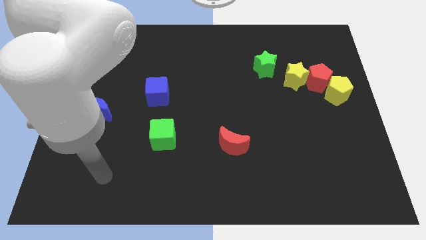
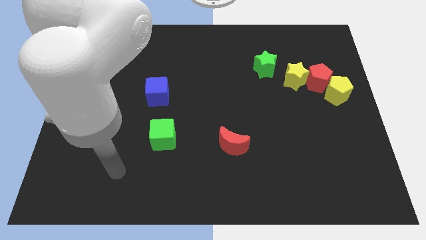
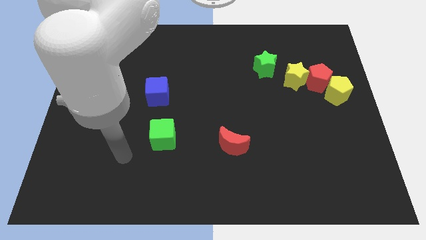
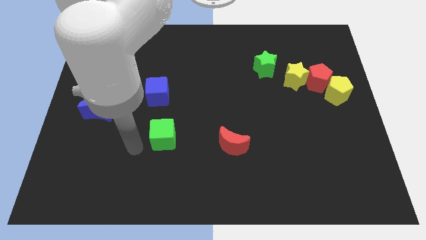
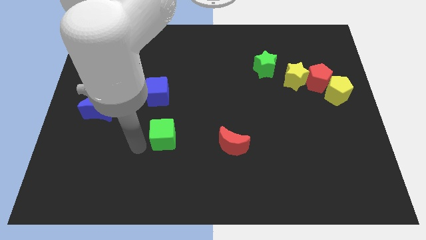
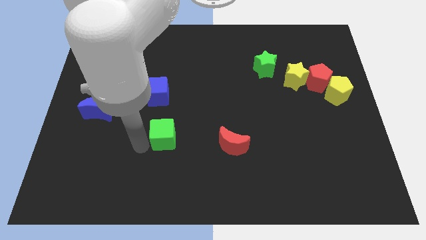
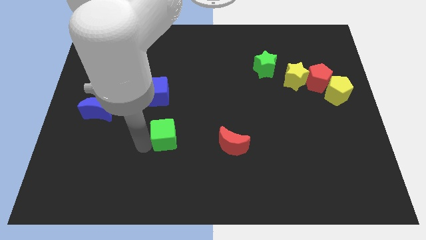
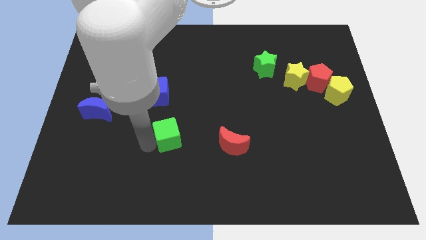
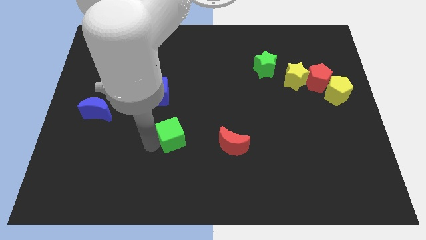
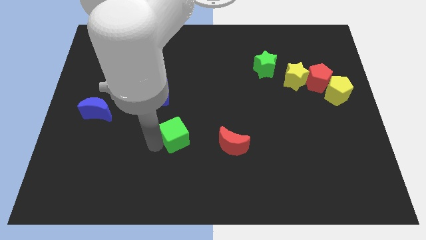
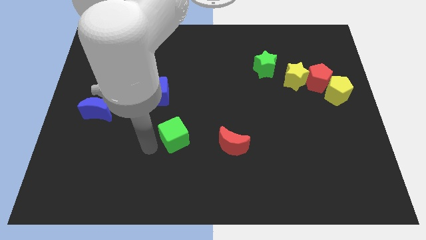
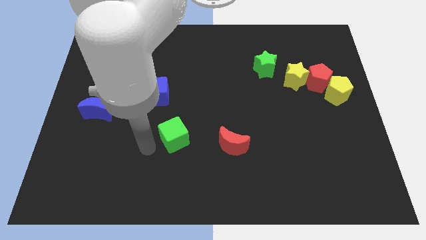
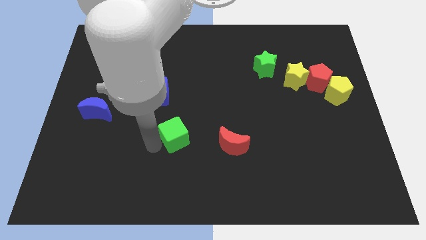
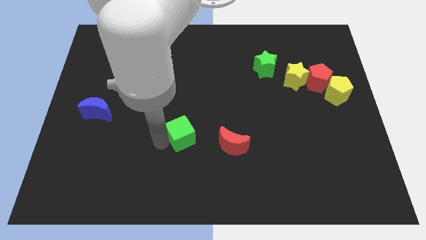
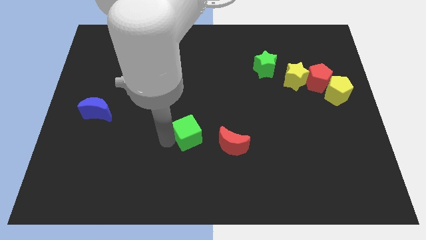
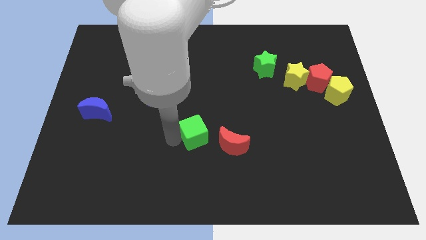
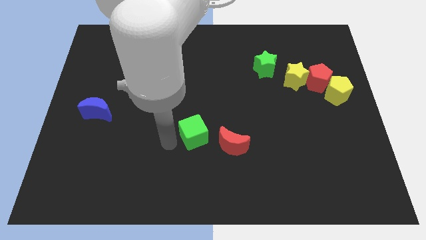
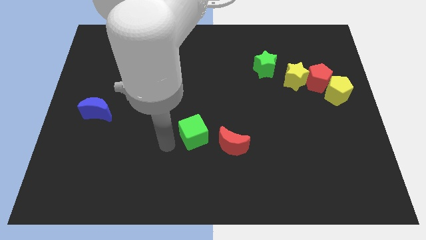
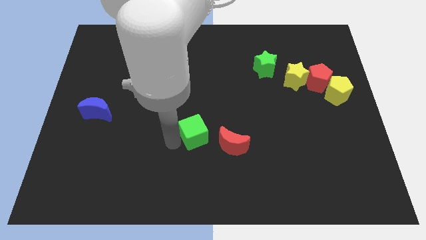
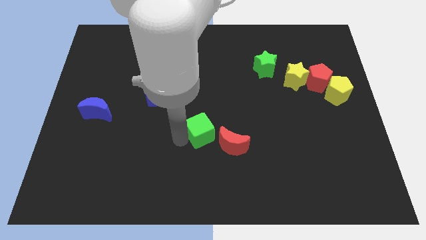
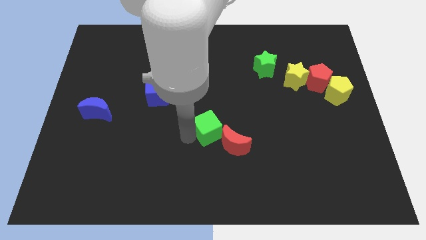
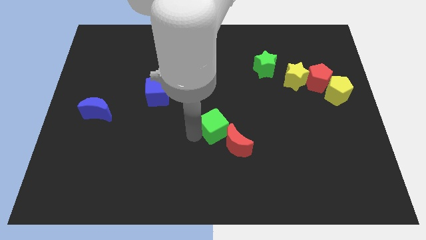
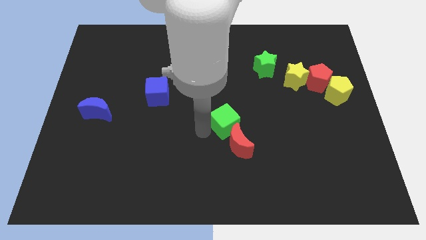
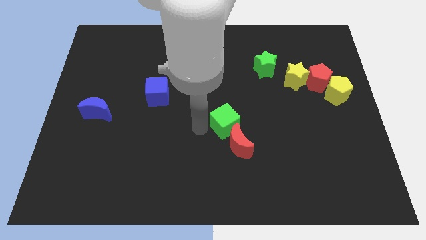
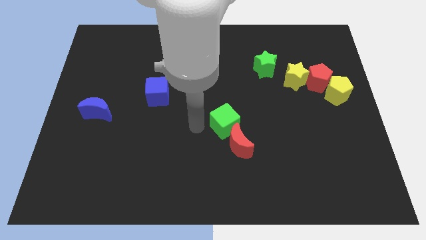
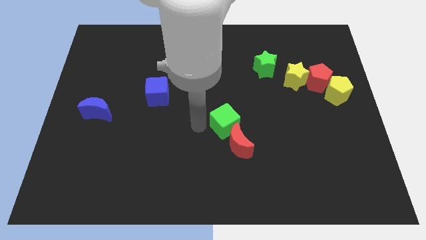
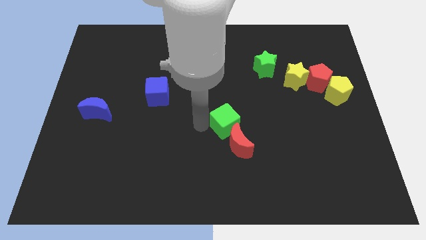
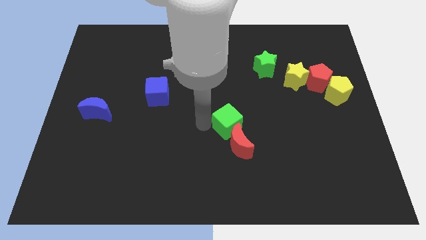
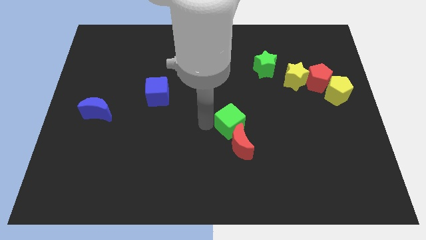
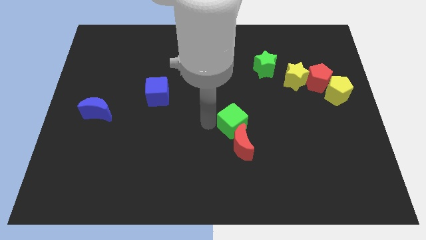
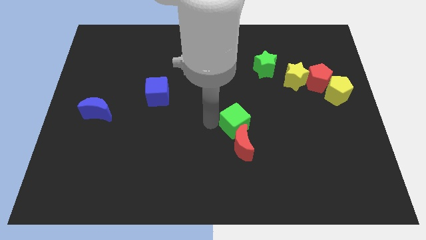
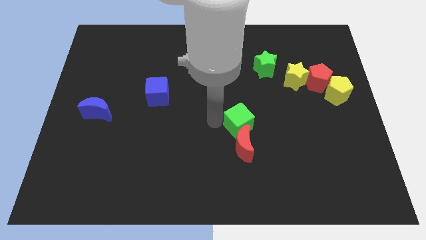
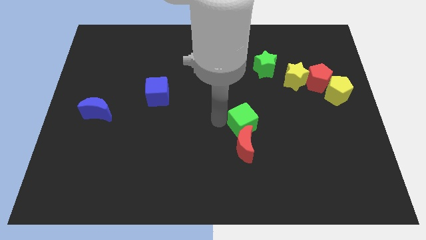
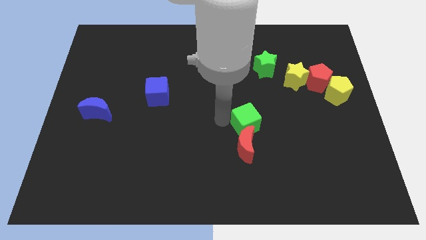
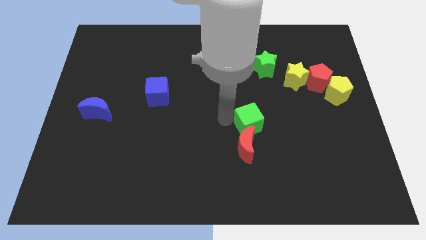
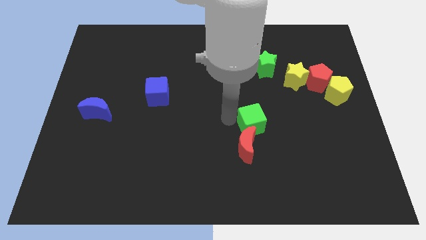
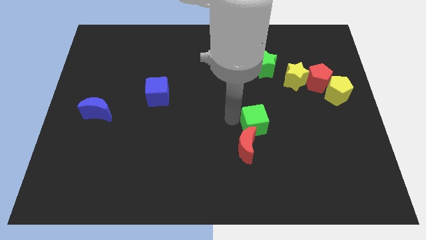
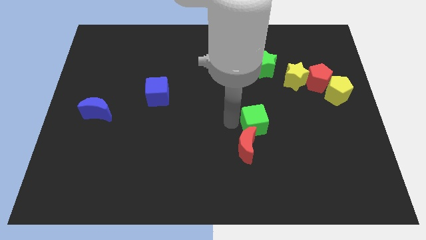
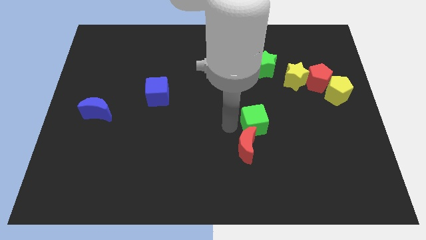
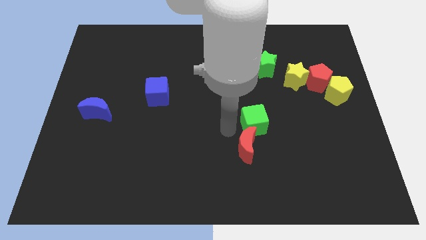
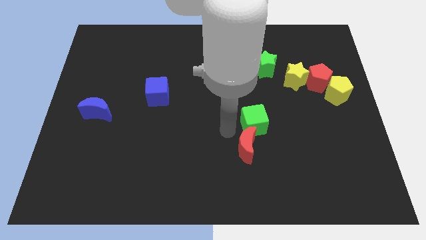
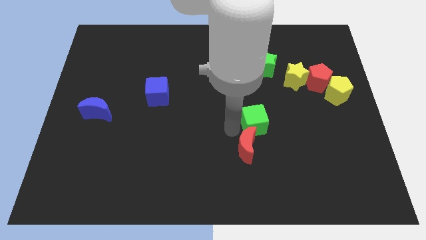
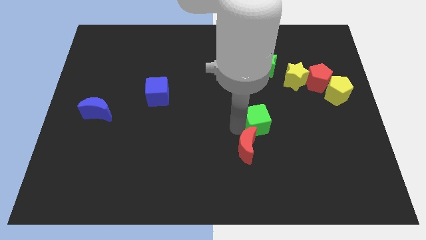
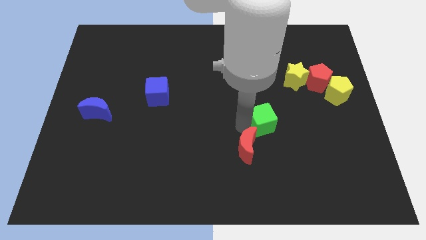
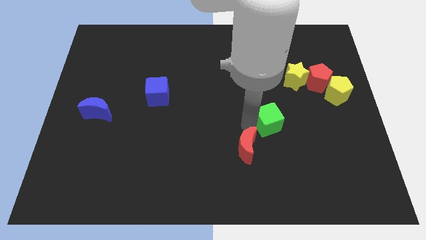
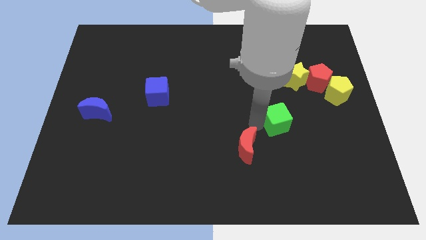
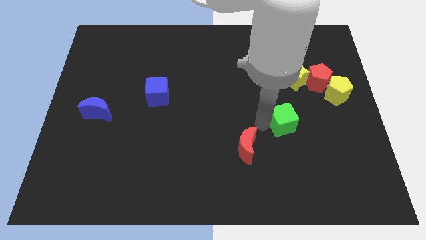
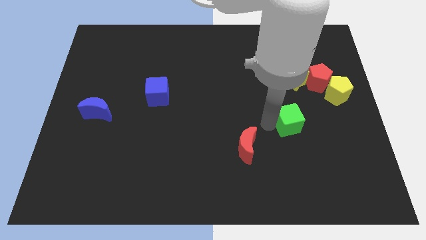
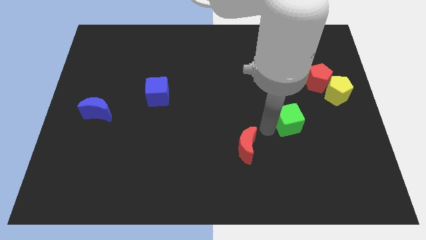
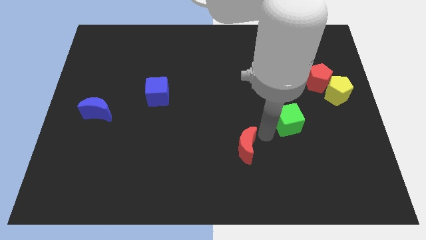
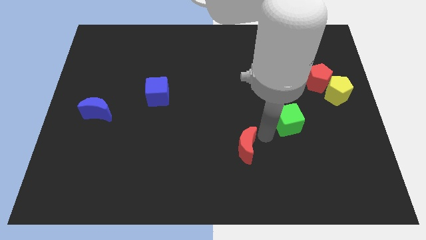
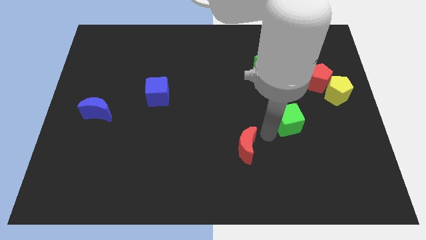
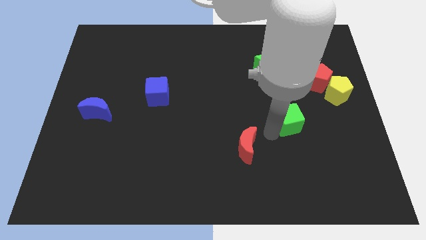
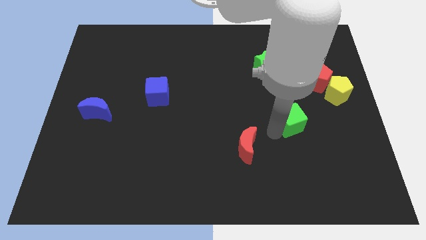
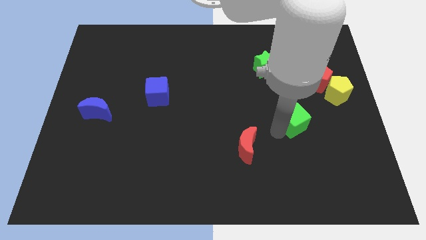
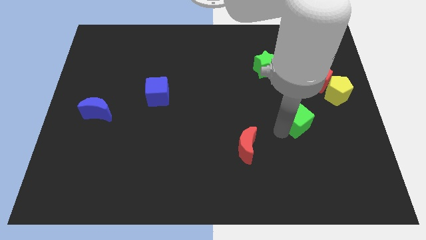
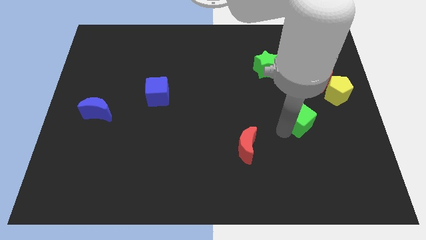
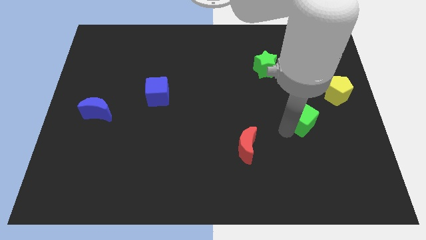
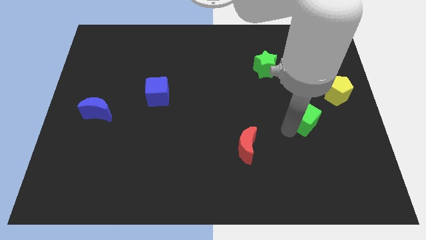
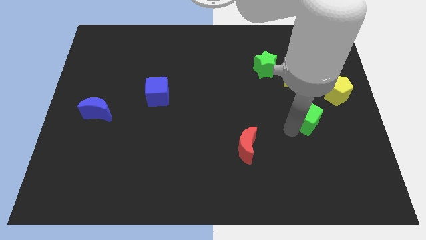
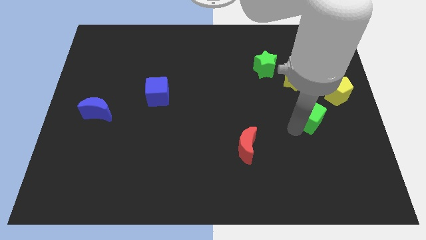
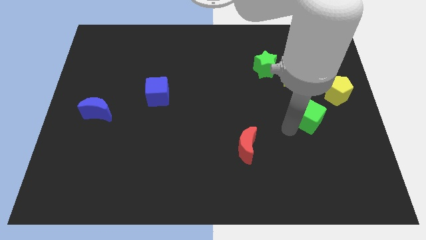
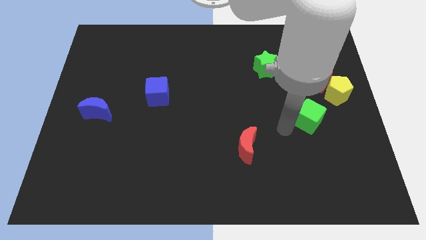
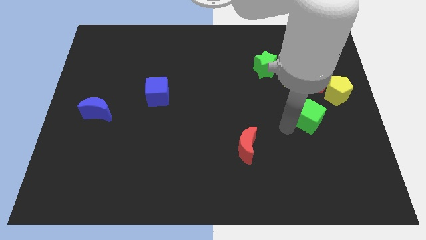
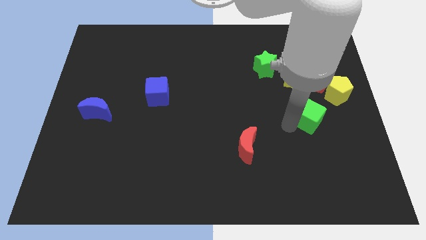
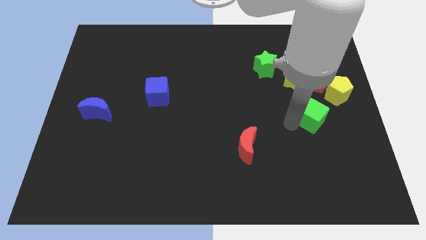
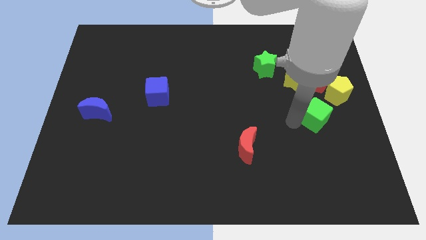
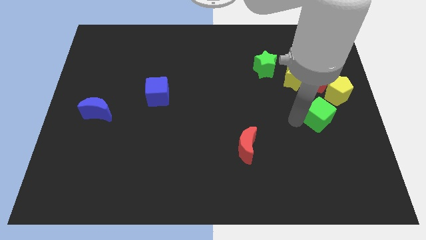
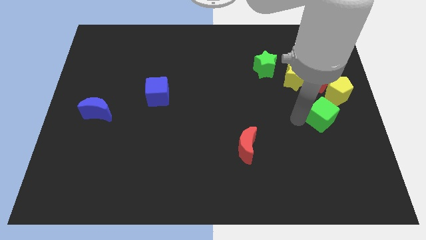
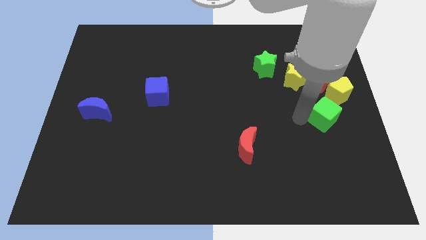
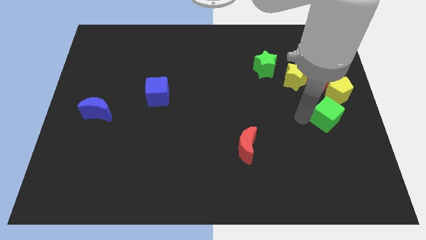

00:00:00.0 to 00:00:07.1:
push the green cube to the right side
